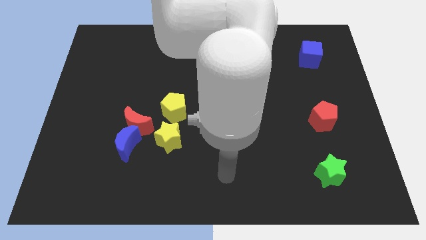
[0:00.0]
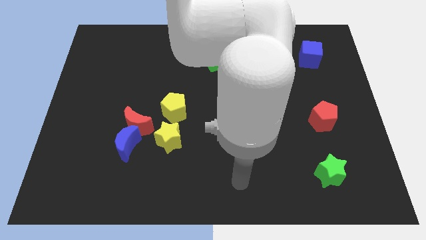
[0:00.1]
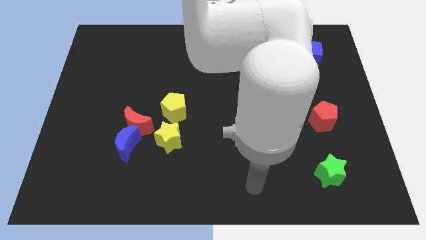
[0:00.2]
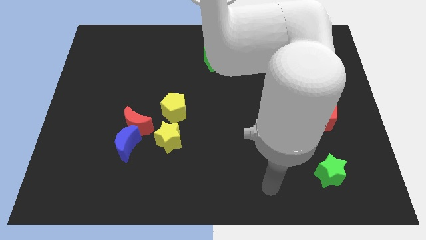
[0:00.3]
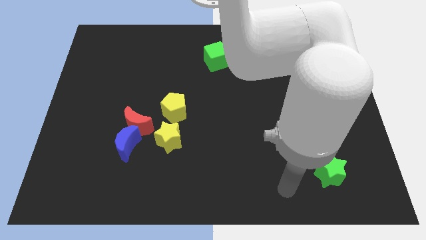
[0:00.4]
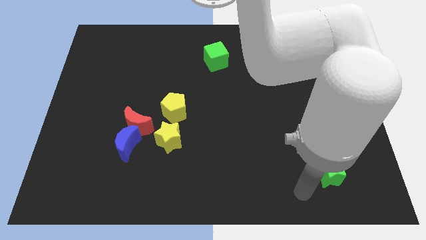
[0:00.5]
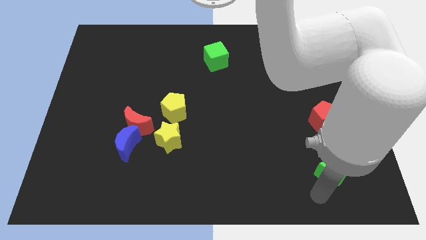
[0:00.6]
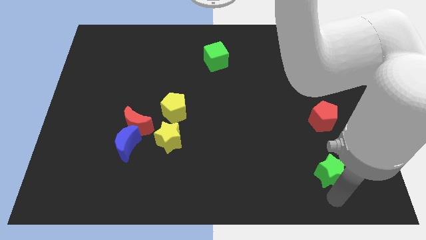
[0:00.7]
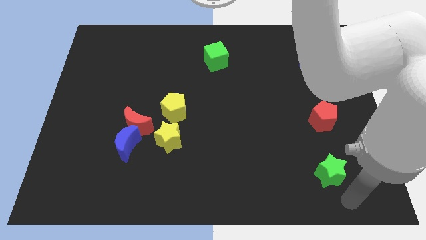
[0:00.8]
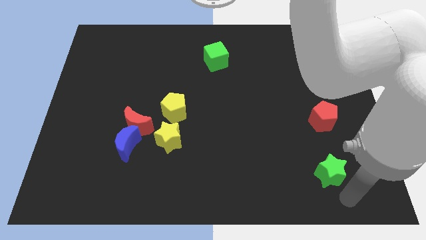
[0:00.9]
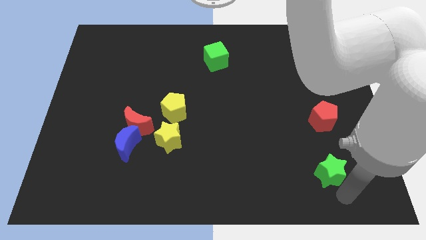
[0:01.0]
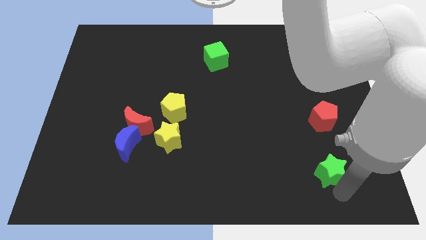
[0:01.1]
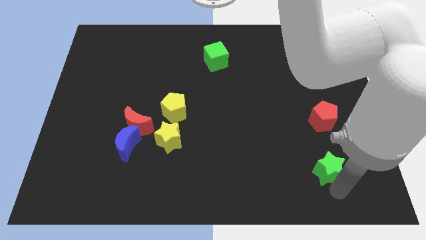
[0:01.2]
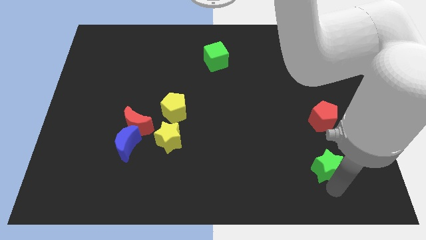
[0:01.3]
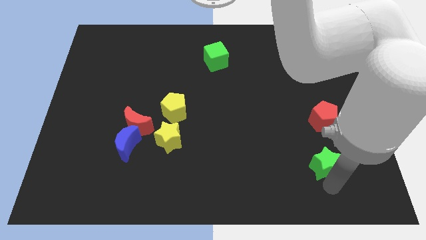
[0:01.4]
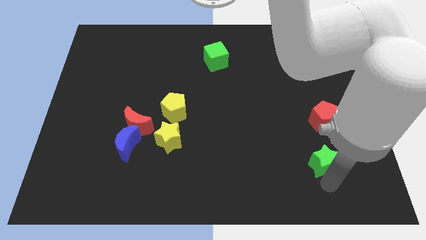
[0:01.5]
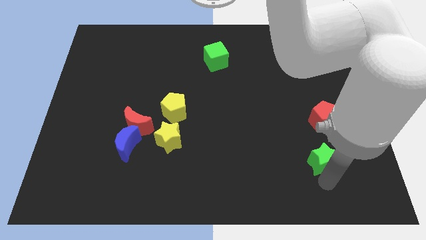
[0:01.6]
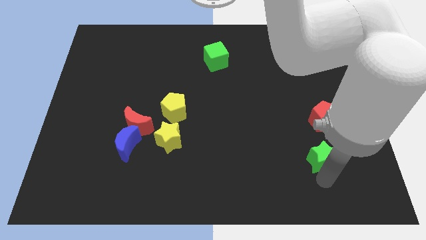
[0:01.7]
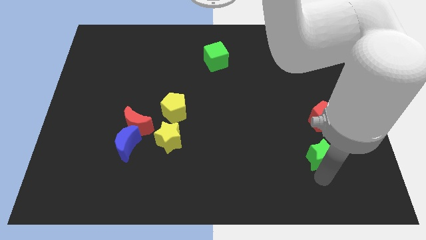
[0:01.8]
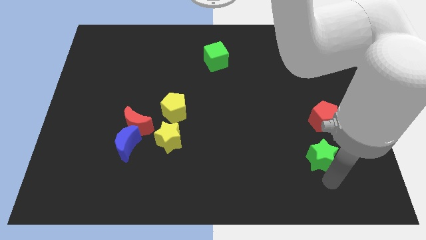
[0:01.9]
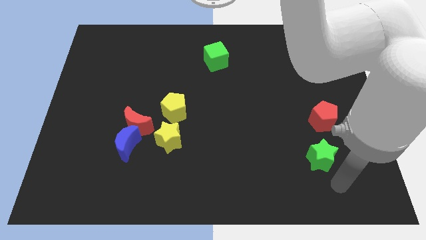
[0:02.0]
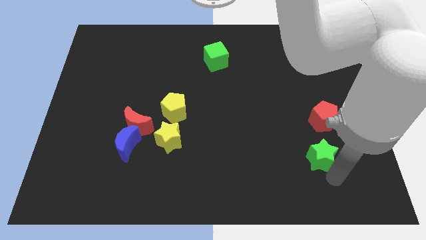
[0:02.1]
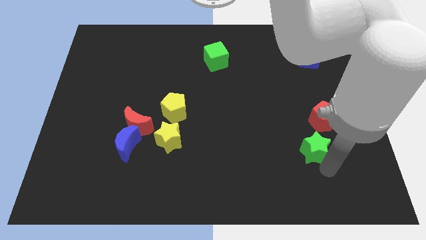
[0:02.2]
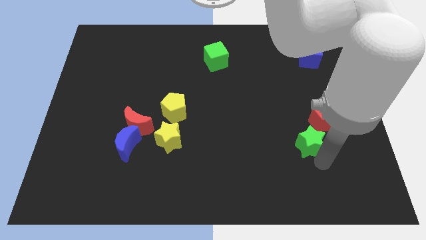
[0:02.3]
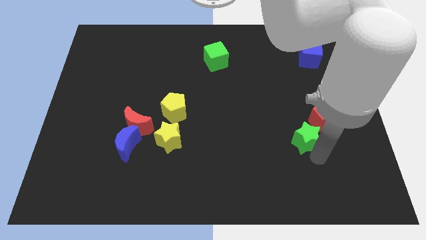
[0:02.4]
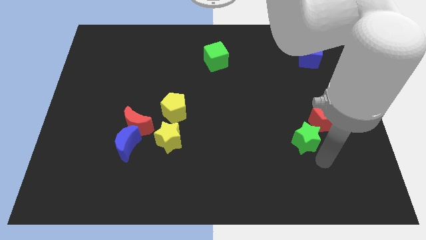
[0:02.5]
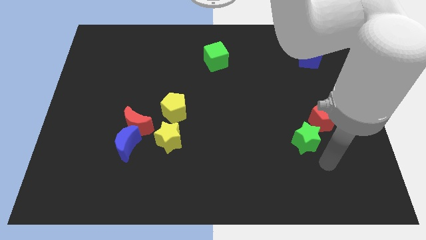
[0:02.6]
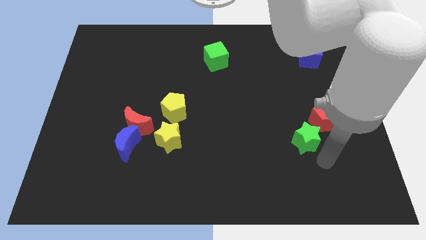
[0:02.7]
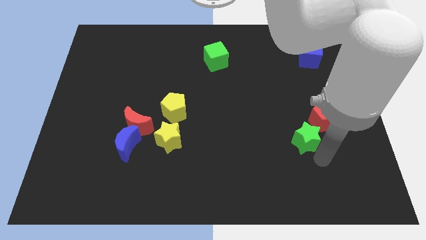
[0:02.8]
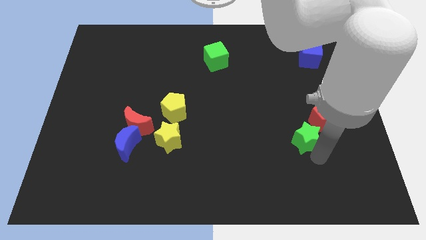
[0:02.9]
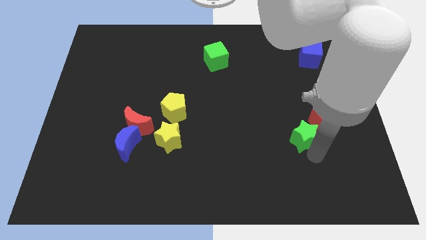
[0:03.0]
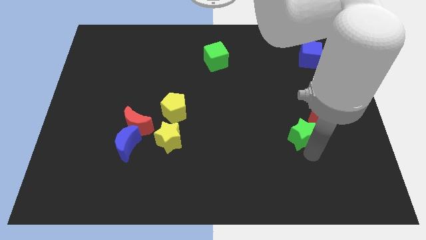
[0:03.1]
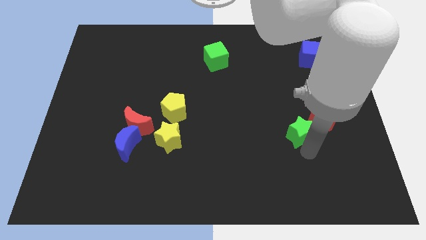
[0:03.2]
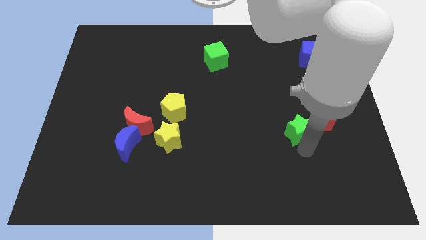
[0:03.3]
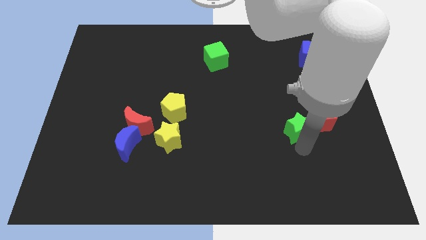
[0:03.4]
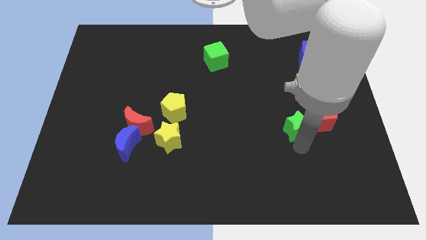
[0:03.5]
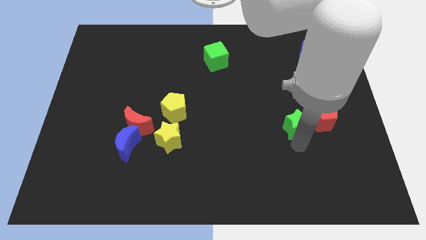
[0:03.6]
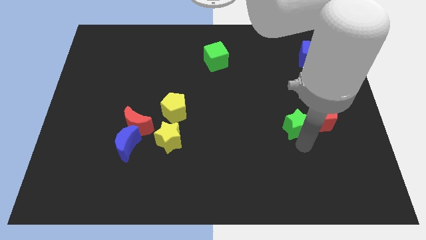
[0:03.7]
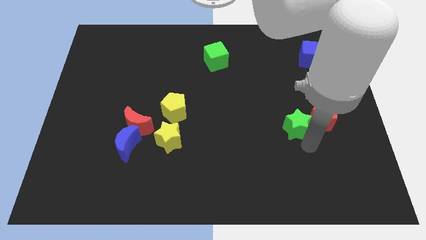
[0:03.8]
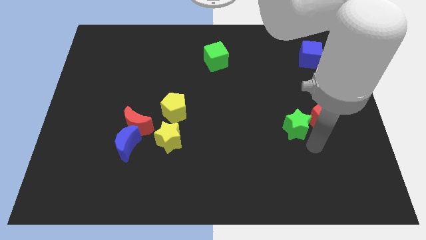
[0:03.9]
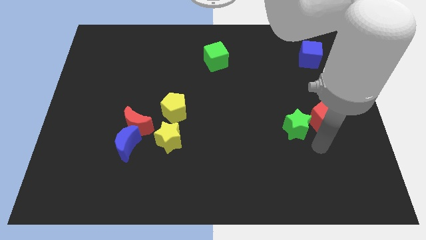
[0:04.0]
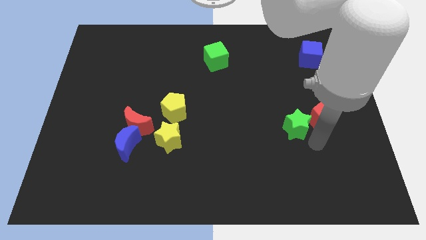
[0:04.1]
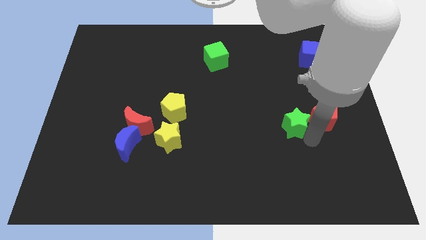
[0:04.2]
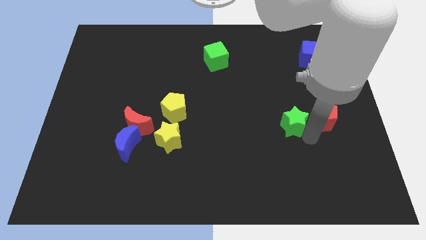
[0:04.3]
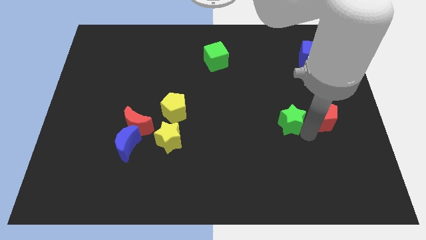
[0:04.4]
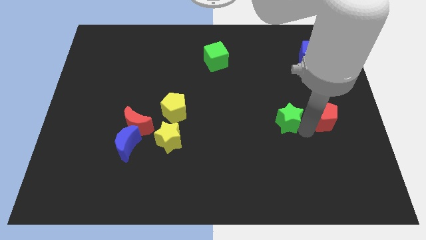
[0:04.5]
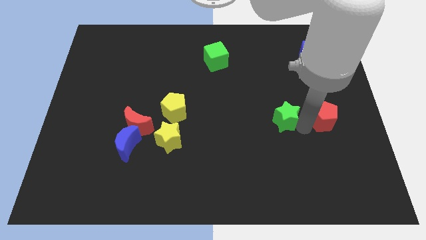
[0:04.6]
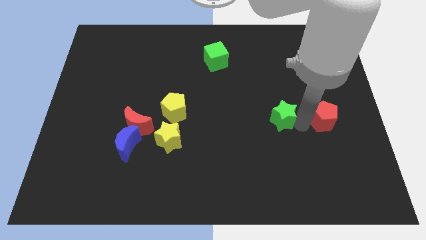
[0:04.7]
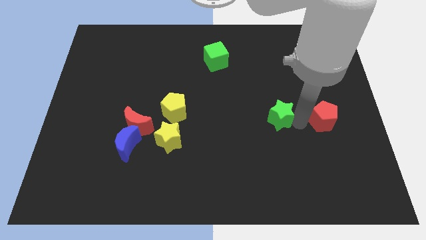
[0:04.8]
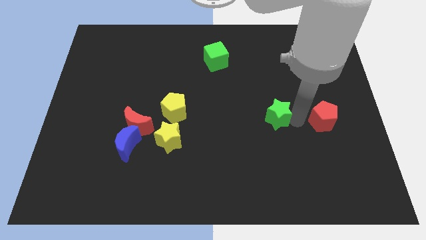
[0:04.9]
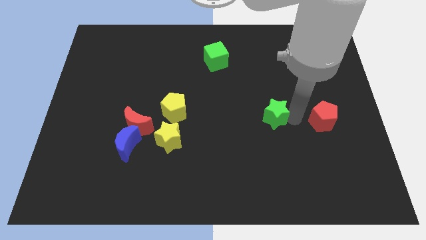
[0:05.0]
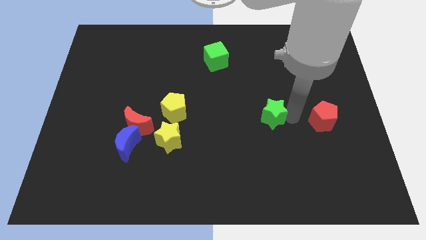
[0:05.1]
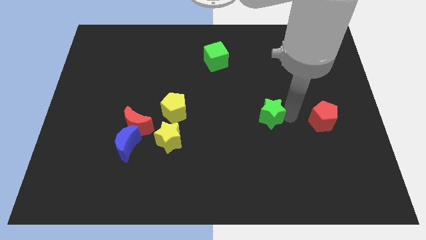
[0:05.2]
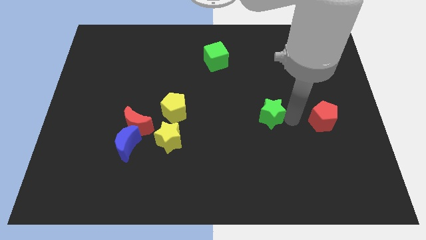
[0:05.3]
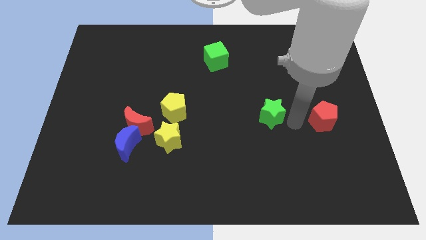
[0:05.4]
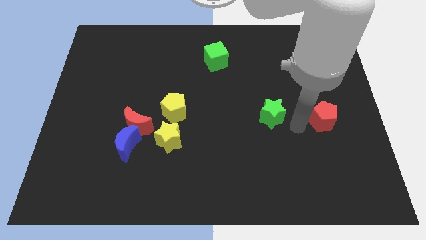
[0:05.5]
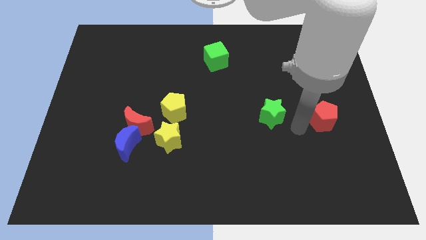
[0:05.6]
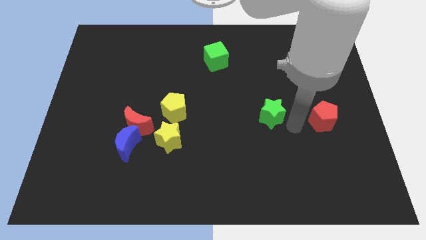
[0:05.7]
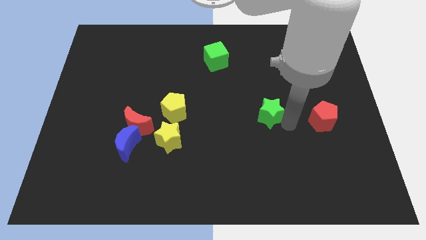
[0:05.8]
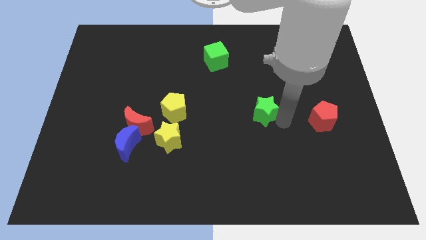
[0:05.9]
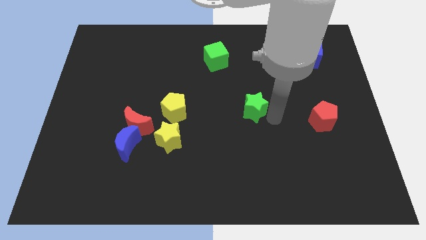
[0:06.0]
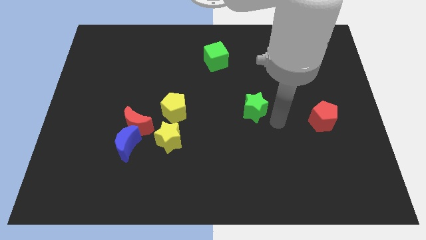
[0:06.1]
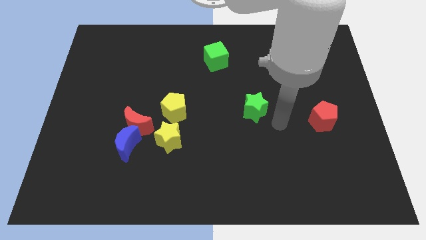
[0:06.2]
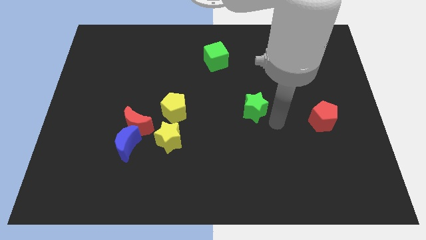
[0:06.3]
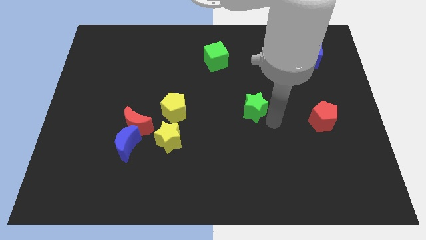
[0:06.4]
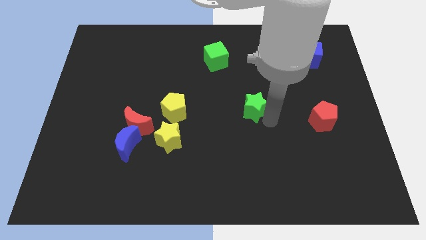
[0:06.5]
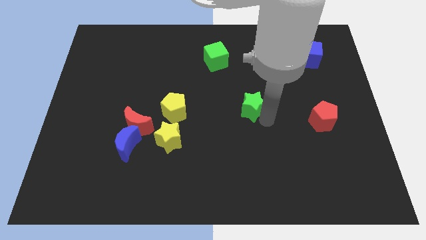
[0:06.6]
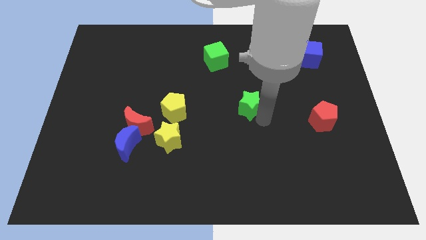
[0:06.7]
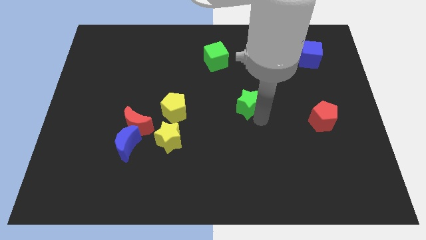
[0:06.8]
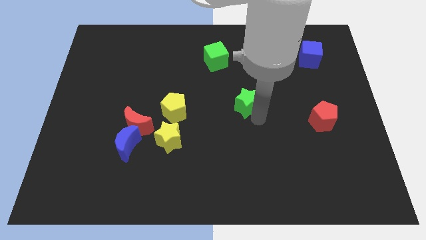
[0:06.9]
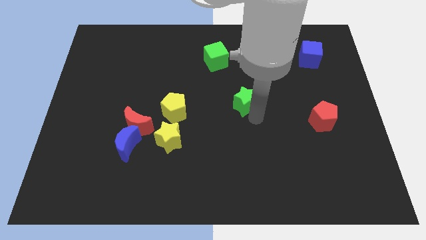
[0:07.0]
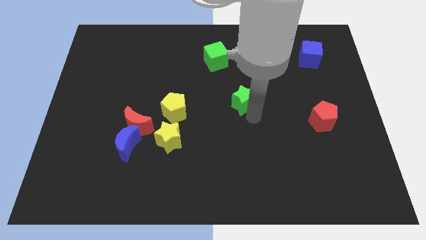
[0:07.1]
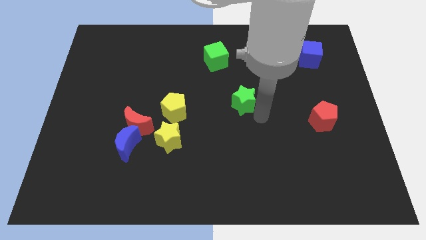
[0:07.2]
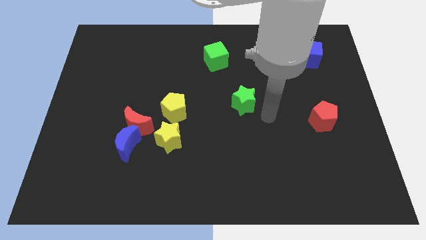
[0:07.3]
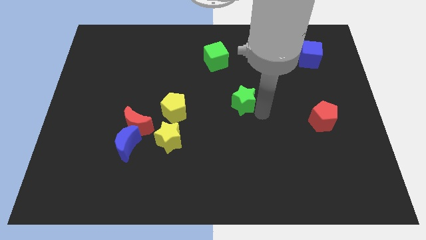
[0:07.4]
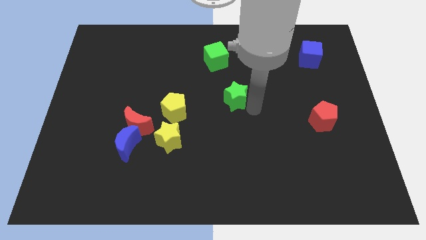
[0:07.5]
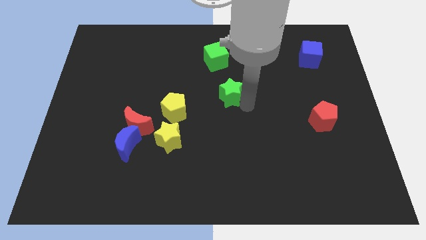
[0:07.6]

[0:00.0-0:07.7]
move the green star to the bottom side of the green cube
